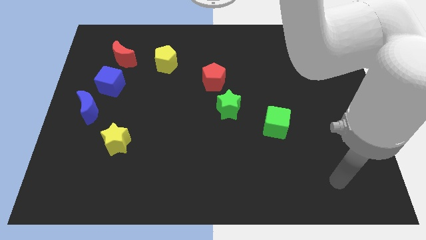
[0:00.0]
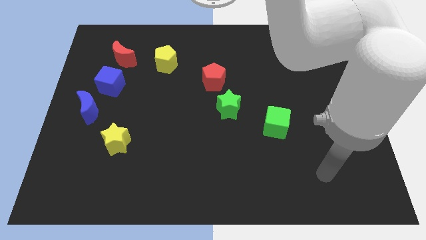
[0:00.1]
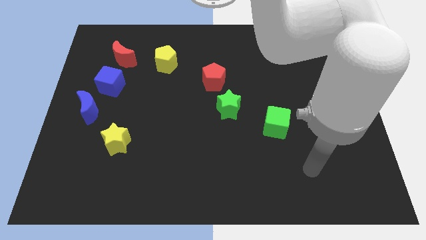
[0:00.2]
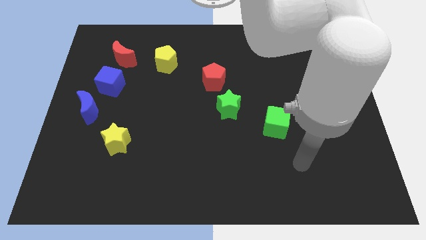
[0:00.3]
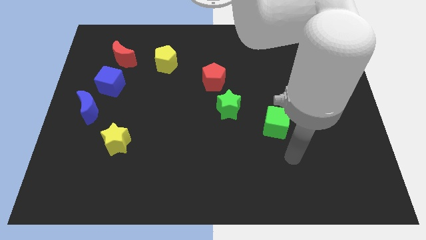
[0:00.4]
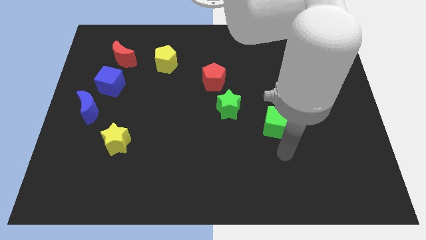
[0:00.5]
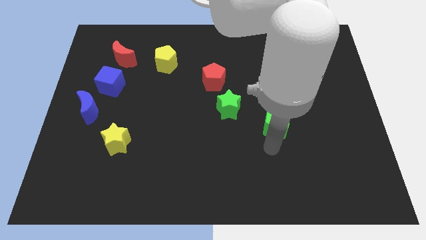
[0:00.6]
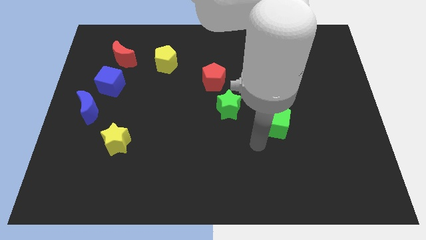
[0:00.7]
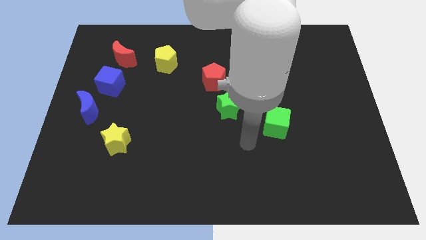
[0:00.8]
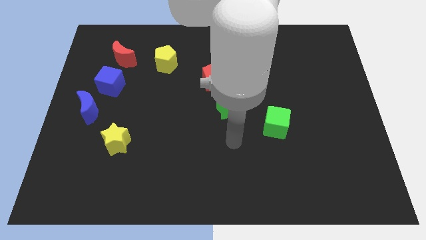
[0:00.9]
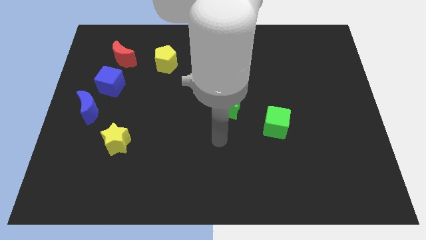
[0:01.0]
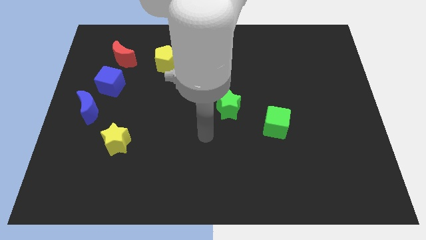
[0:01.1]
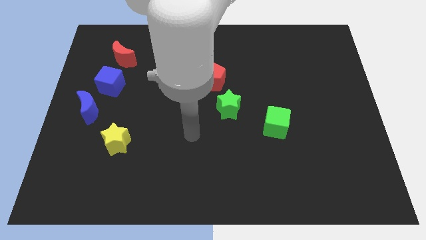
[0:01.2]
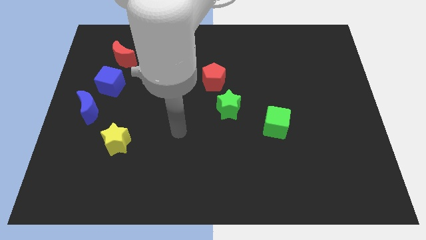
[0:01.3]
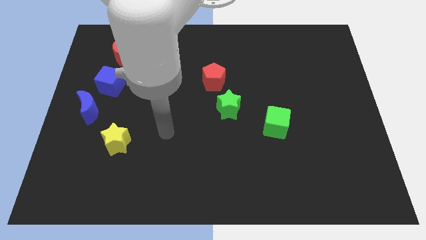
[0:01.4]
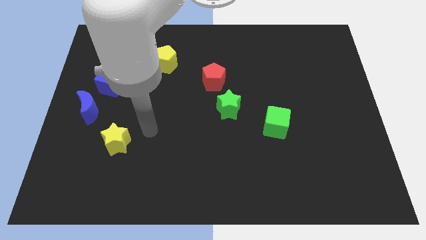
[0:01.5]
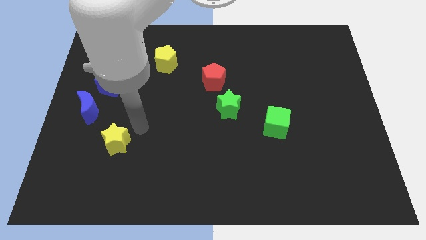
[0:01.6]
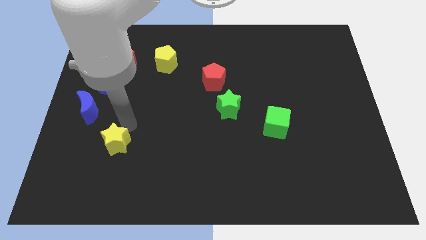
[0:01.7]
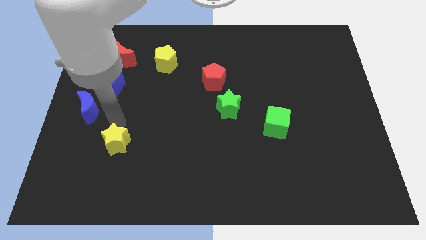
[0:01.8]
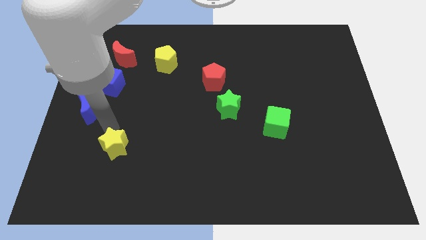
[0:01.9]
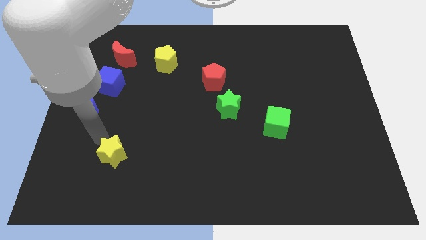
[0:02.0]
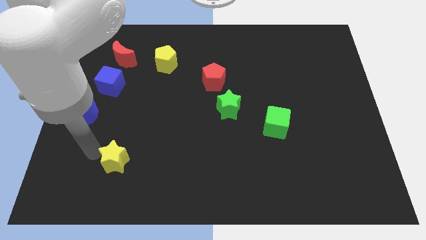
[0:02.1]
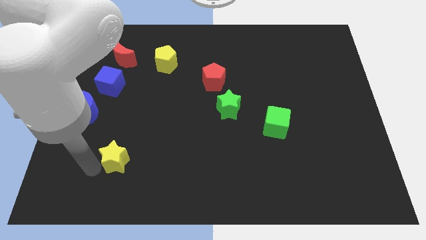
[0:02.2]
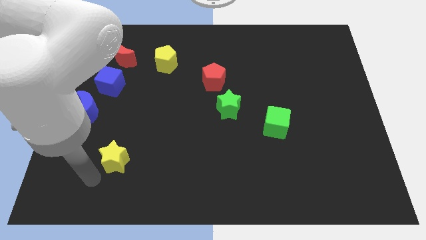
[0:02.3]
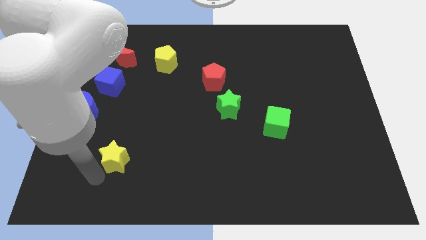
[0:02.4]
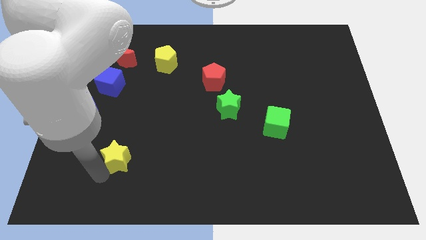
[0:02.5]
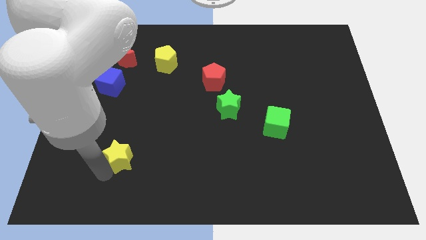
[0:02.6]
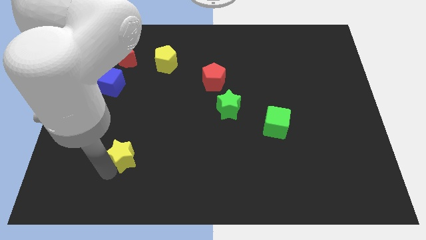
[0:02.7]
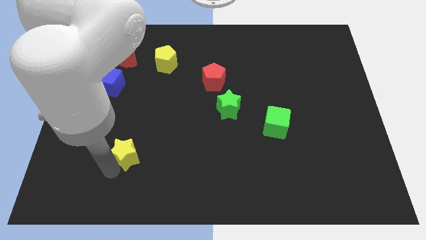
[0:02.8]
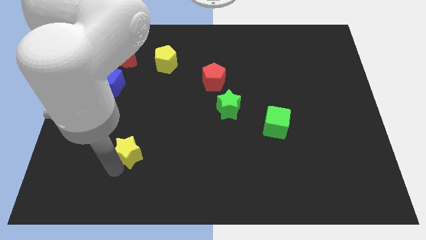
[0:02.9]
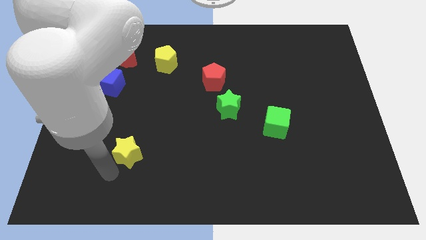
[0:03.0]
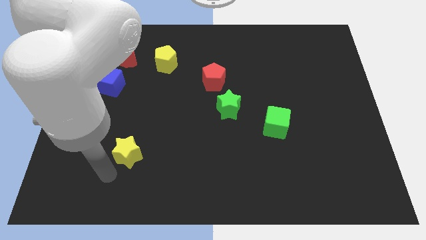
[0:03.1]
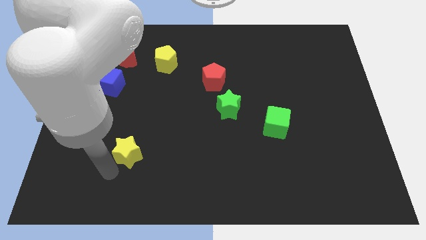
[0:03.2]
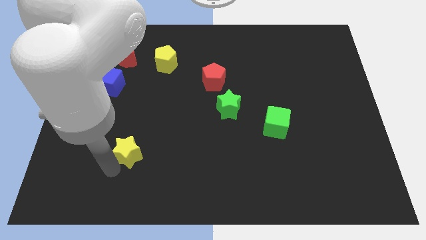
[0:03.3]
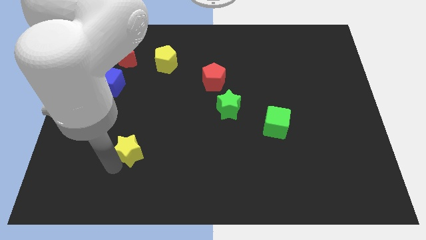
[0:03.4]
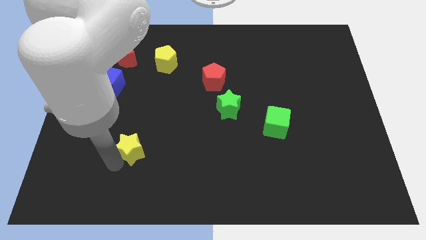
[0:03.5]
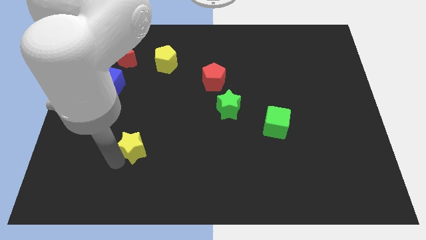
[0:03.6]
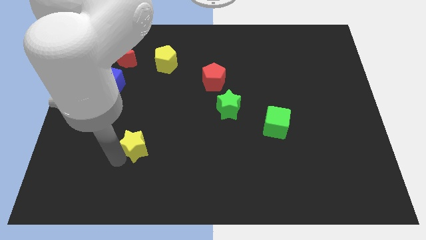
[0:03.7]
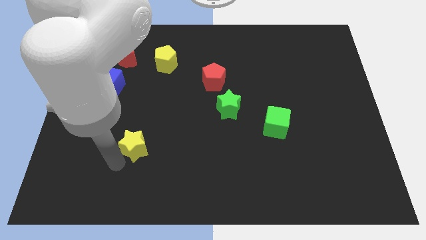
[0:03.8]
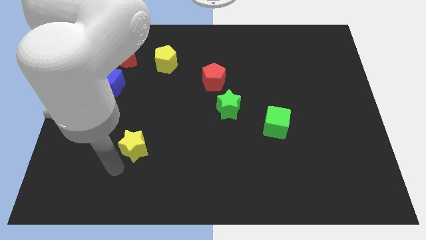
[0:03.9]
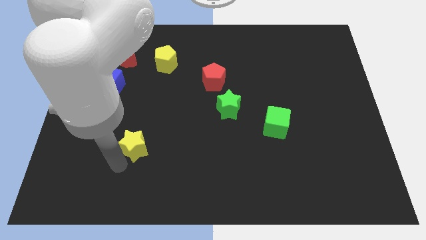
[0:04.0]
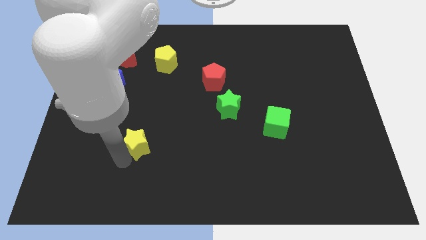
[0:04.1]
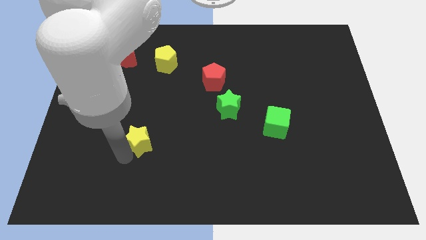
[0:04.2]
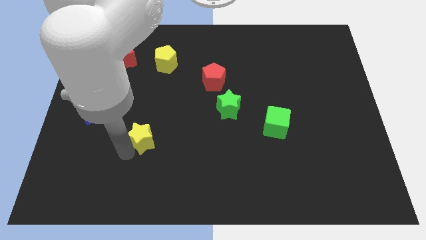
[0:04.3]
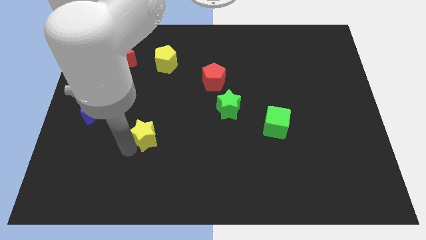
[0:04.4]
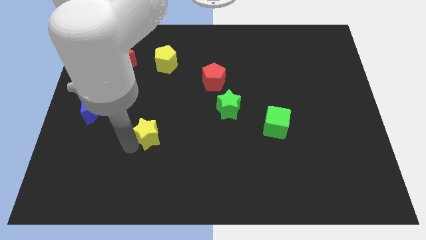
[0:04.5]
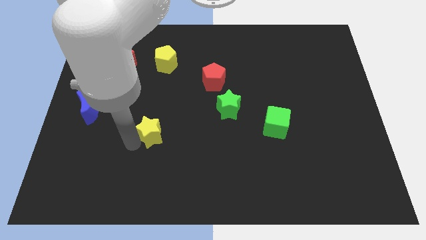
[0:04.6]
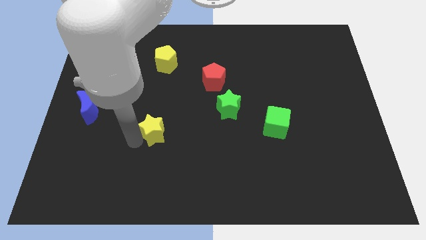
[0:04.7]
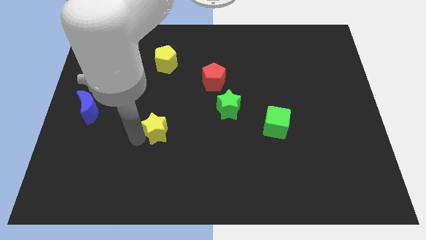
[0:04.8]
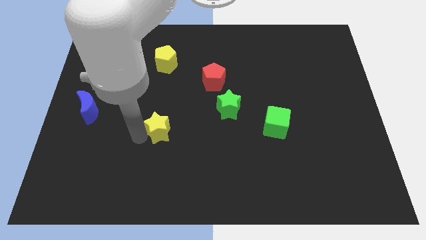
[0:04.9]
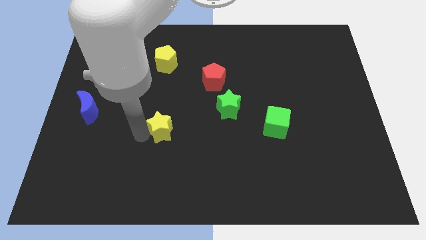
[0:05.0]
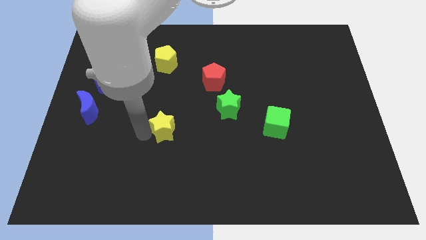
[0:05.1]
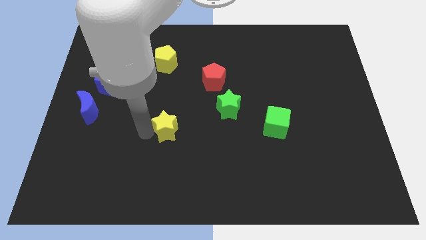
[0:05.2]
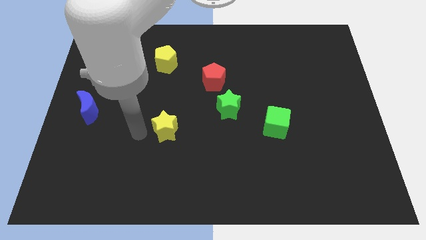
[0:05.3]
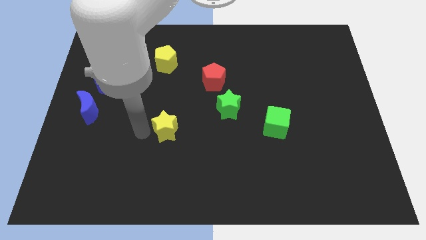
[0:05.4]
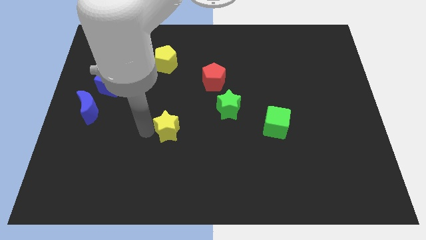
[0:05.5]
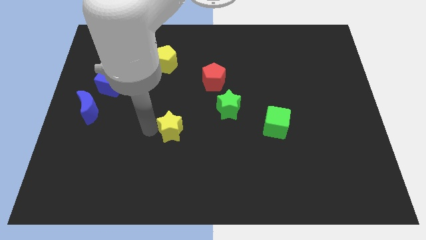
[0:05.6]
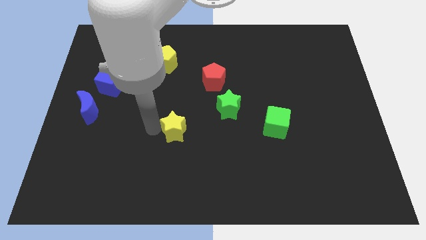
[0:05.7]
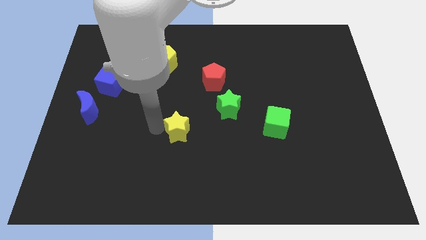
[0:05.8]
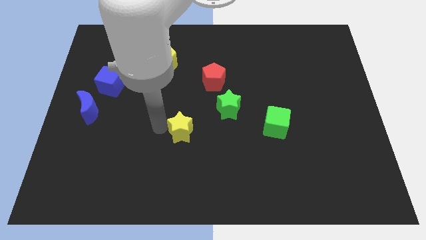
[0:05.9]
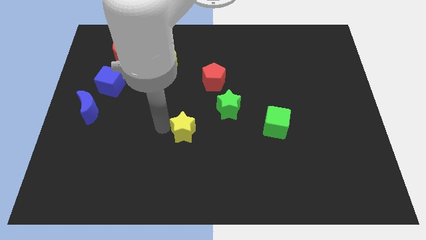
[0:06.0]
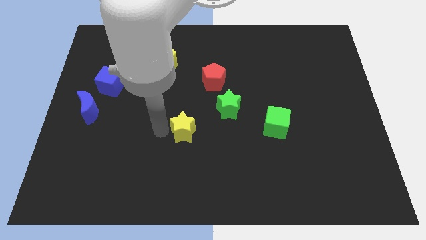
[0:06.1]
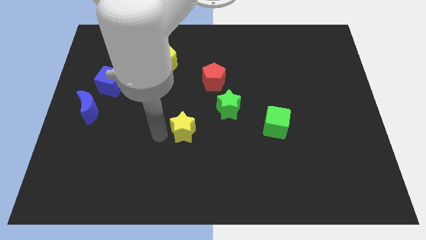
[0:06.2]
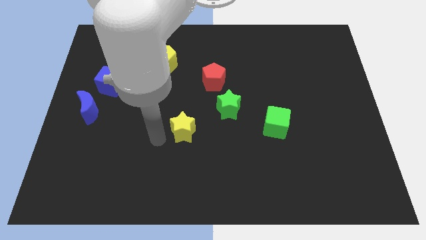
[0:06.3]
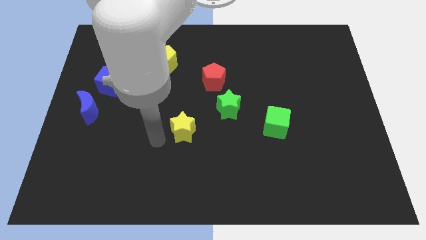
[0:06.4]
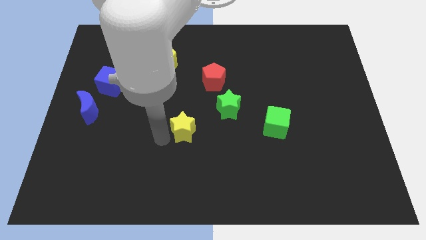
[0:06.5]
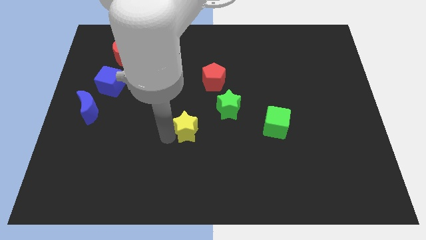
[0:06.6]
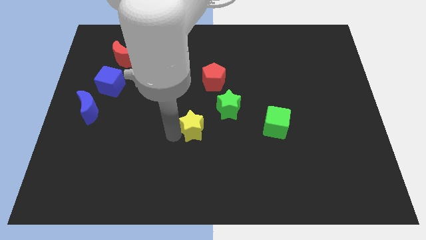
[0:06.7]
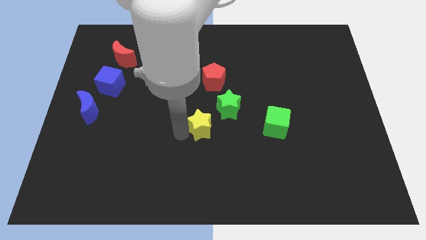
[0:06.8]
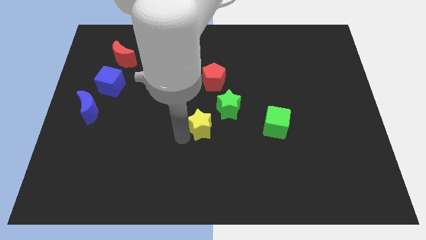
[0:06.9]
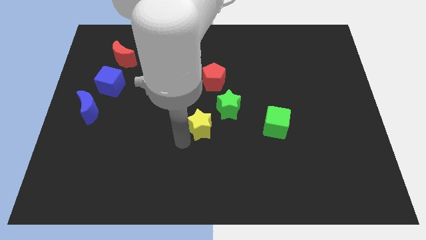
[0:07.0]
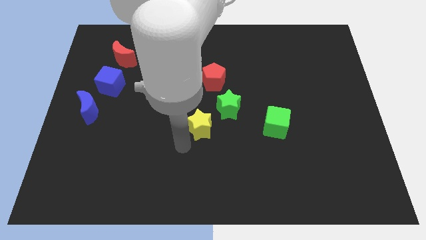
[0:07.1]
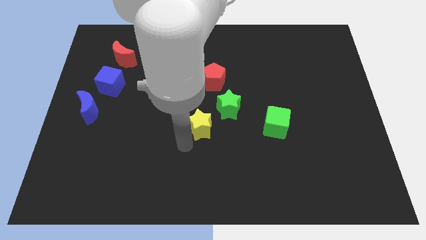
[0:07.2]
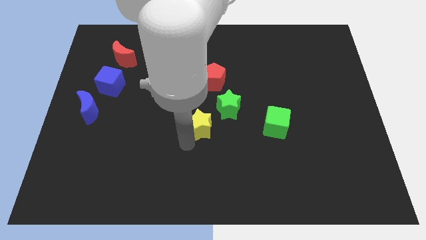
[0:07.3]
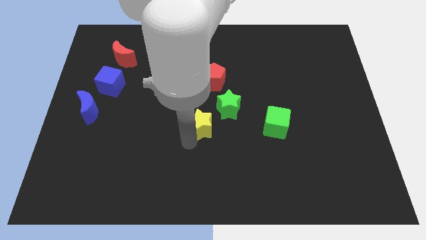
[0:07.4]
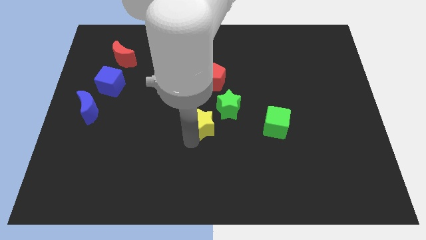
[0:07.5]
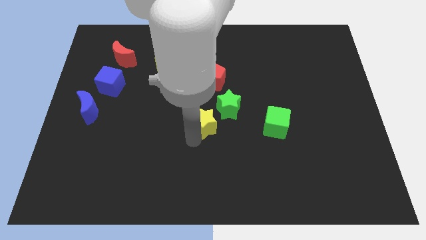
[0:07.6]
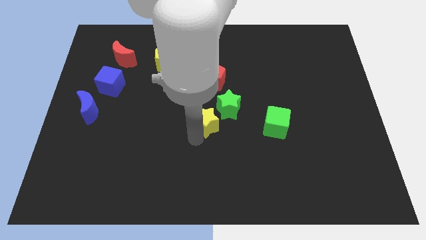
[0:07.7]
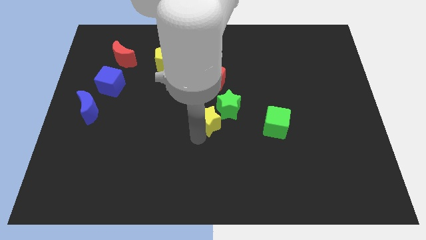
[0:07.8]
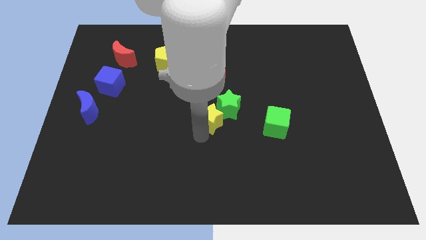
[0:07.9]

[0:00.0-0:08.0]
put the yellow star close to the green star
